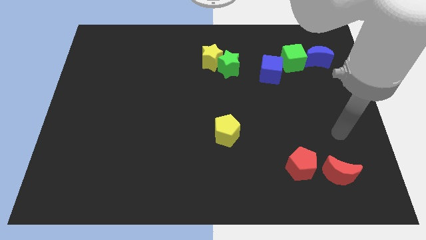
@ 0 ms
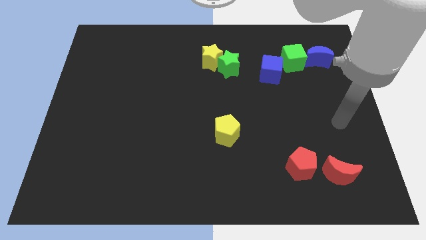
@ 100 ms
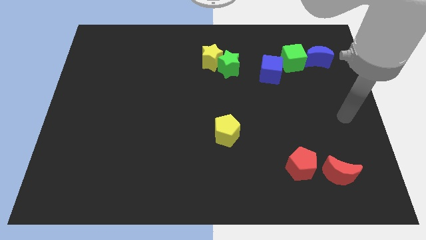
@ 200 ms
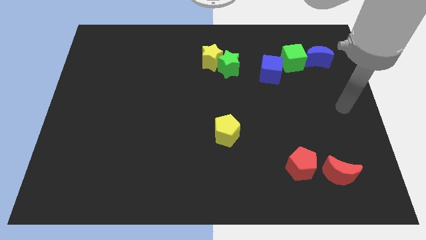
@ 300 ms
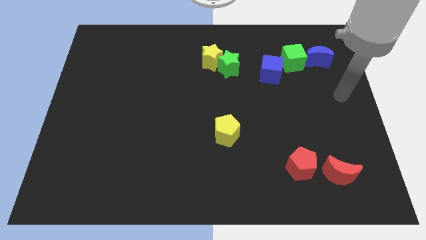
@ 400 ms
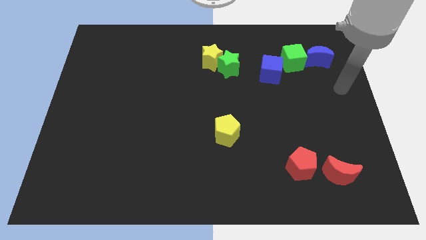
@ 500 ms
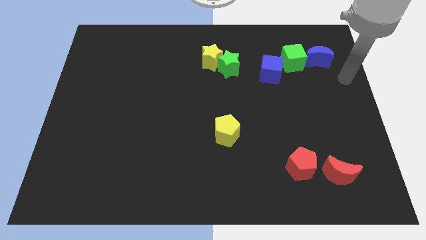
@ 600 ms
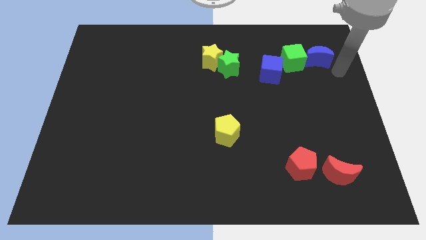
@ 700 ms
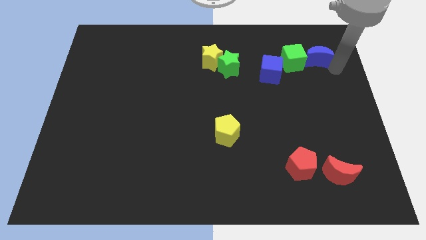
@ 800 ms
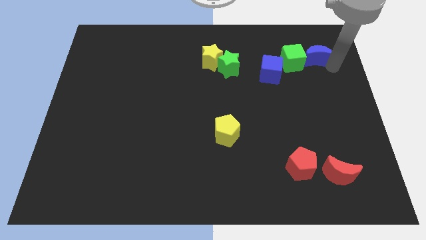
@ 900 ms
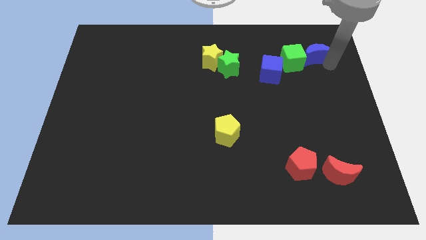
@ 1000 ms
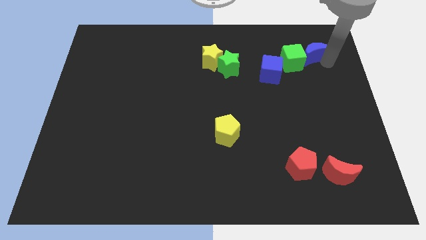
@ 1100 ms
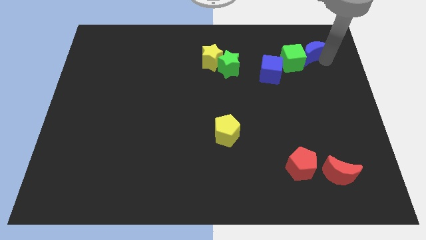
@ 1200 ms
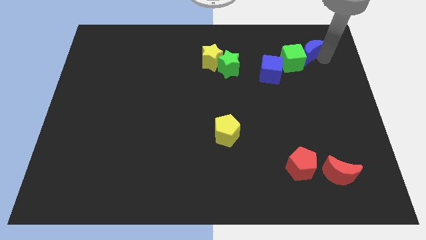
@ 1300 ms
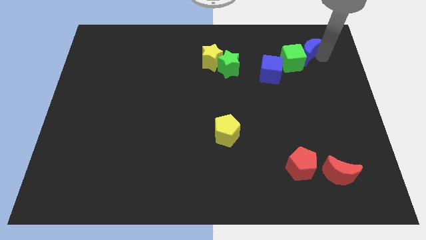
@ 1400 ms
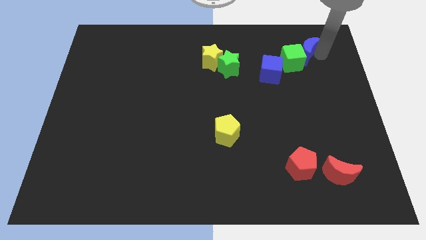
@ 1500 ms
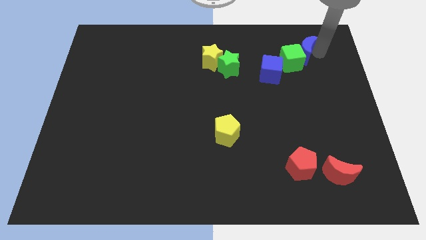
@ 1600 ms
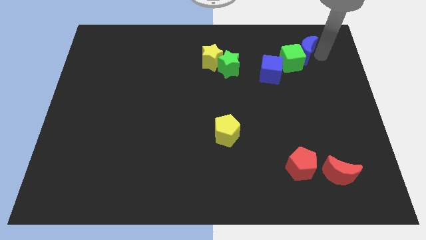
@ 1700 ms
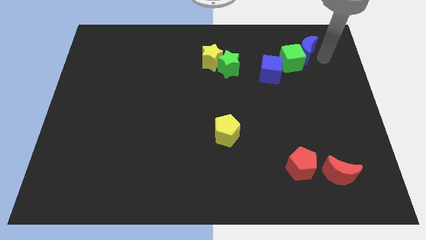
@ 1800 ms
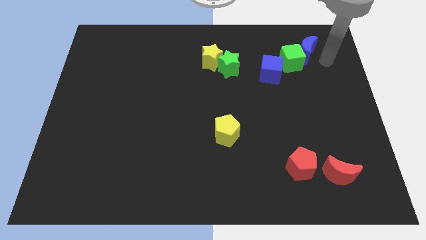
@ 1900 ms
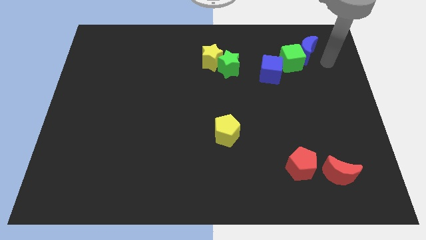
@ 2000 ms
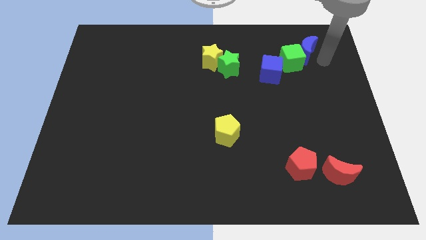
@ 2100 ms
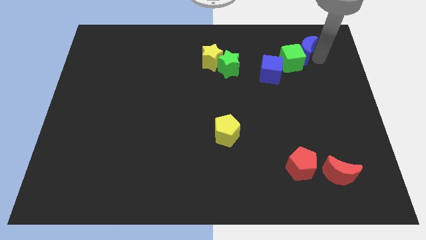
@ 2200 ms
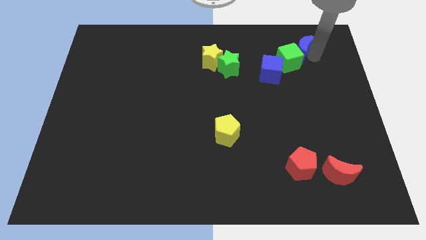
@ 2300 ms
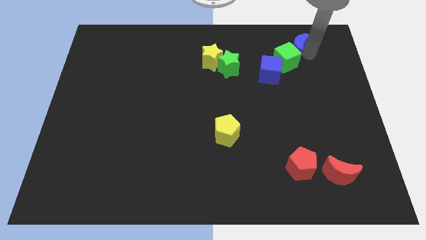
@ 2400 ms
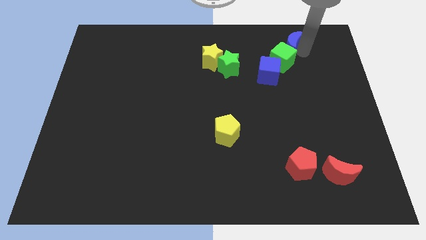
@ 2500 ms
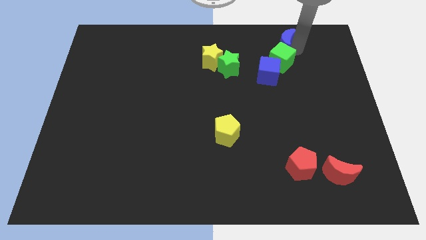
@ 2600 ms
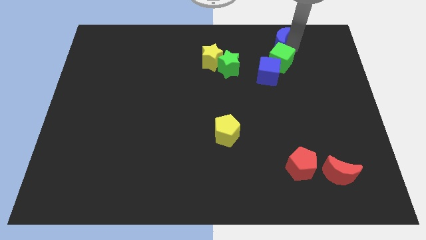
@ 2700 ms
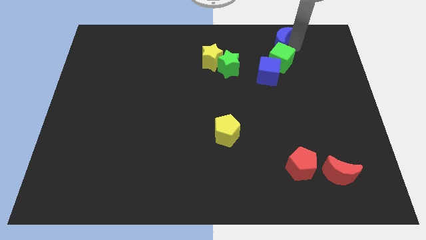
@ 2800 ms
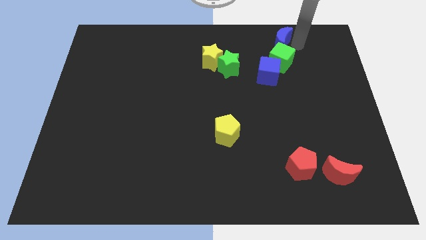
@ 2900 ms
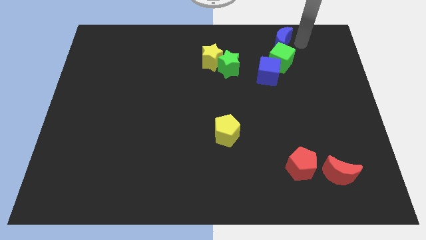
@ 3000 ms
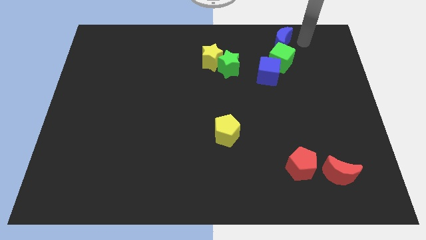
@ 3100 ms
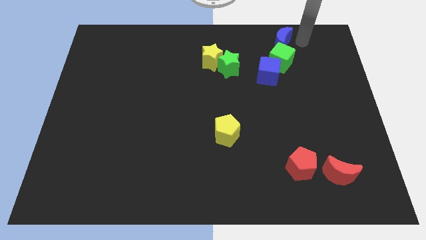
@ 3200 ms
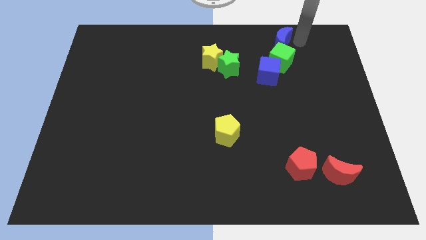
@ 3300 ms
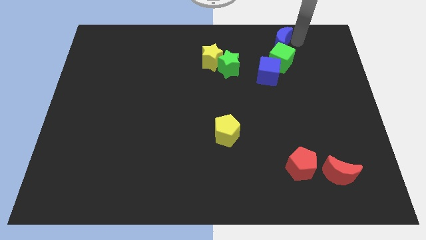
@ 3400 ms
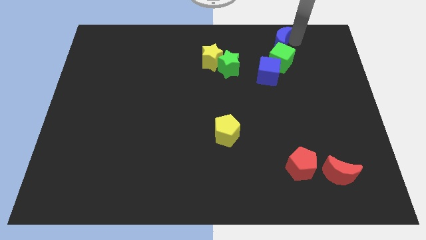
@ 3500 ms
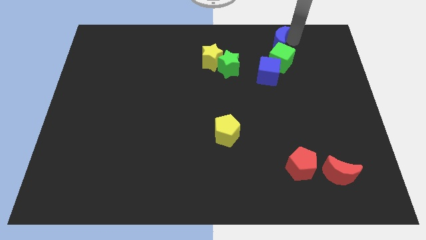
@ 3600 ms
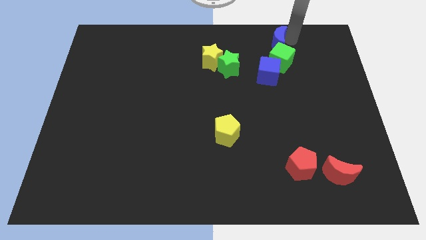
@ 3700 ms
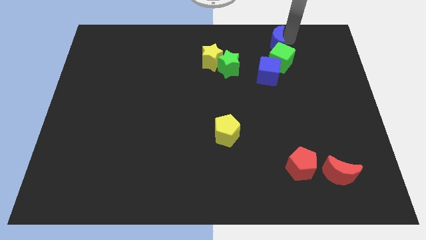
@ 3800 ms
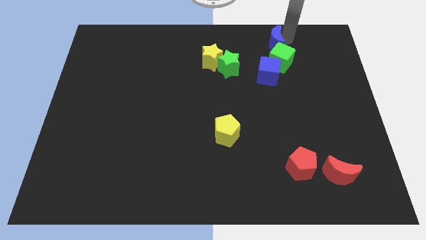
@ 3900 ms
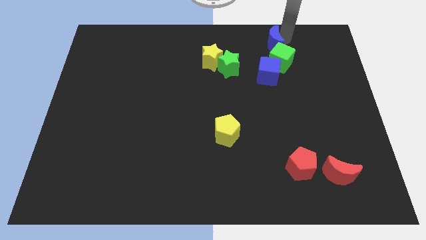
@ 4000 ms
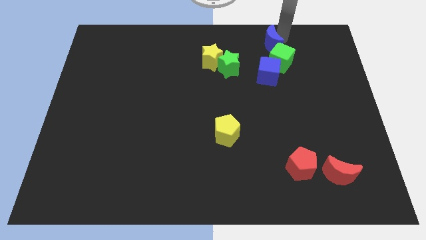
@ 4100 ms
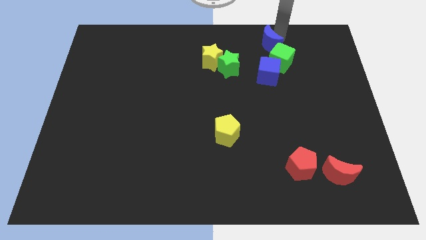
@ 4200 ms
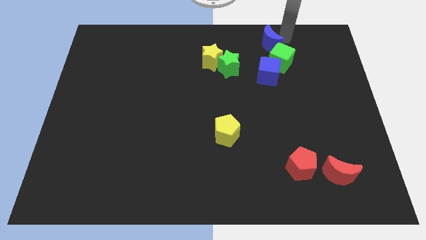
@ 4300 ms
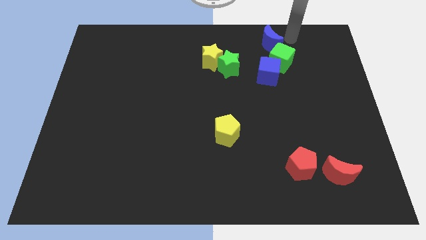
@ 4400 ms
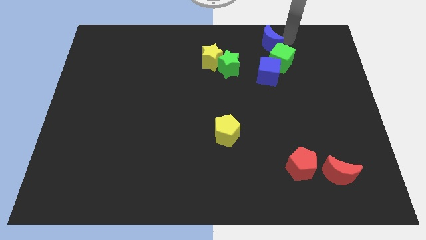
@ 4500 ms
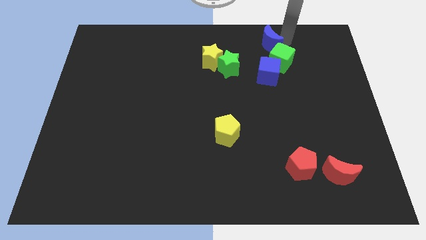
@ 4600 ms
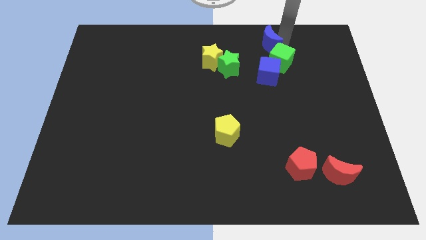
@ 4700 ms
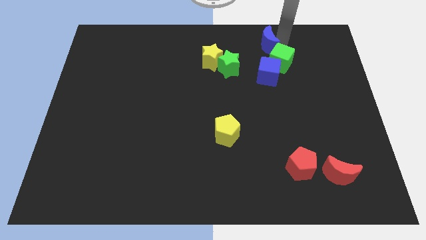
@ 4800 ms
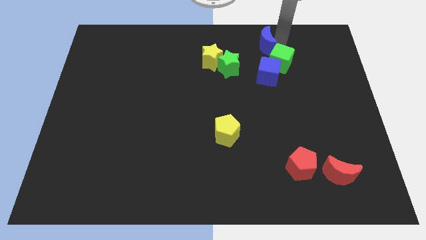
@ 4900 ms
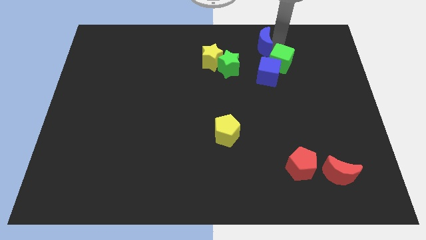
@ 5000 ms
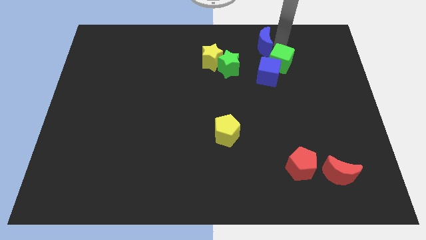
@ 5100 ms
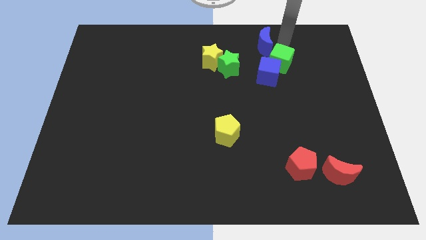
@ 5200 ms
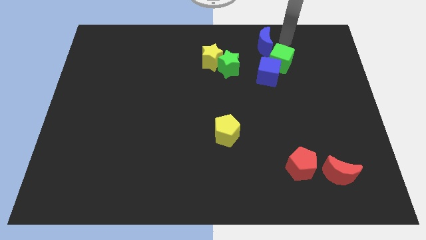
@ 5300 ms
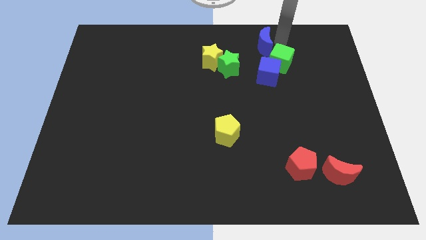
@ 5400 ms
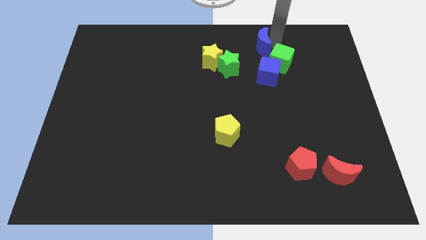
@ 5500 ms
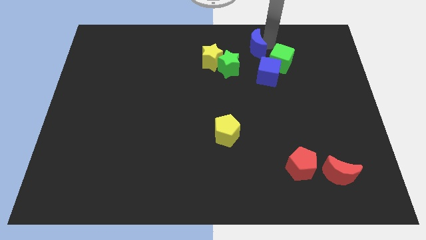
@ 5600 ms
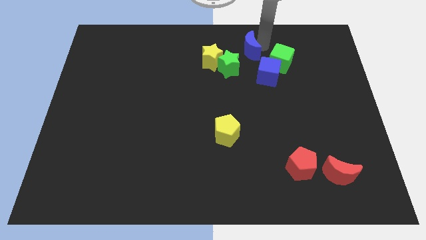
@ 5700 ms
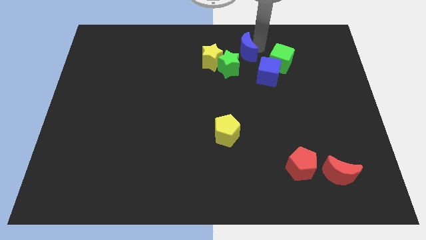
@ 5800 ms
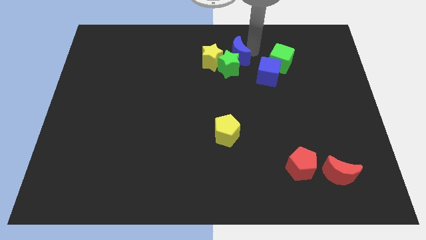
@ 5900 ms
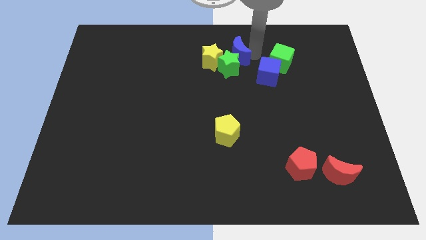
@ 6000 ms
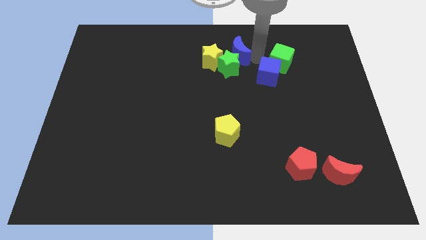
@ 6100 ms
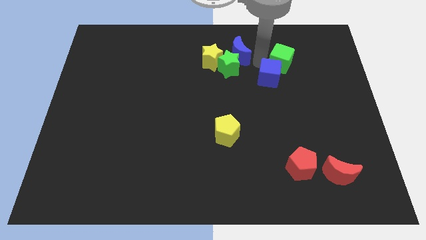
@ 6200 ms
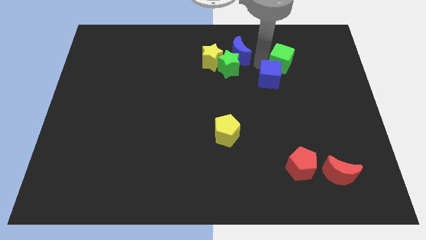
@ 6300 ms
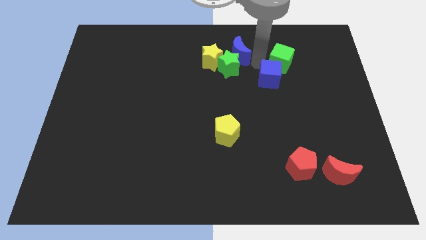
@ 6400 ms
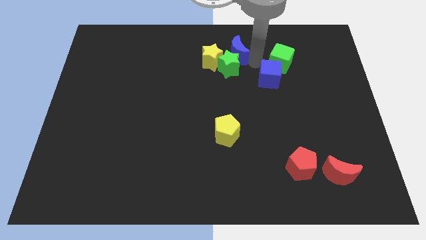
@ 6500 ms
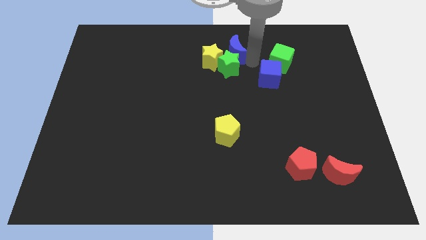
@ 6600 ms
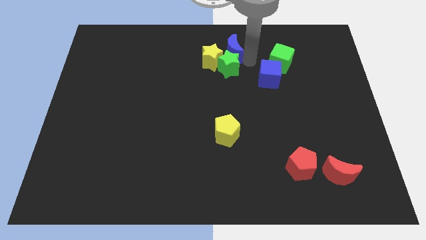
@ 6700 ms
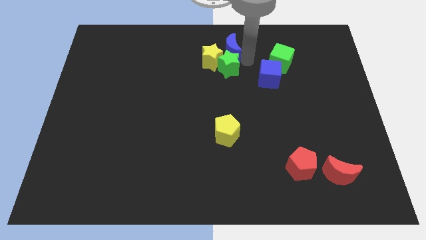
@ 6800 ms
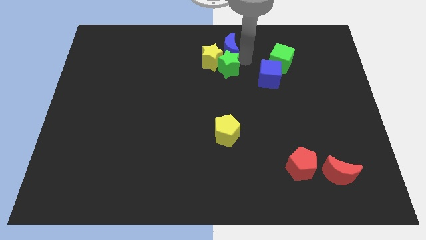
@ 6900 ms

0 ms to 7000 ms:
push the blue moon close to the yellow star

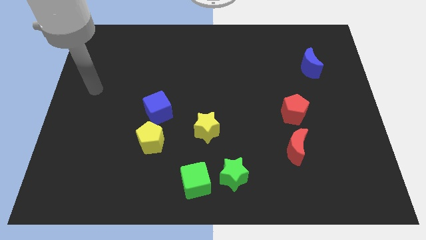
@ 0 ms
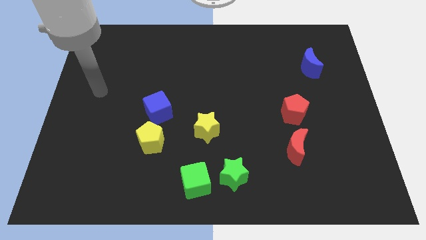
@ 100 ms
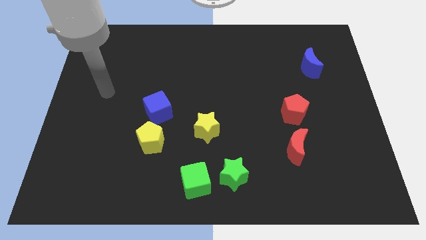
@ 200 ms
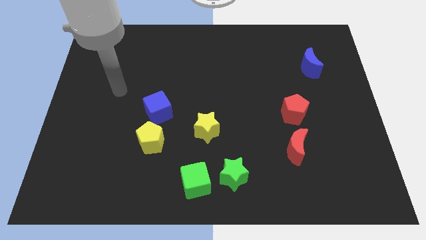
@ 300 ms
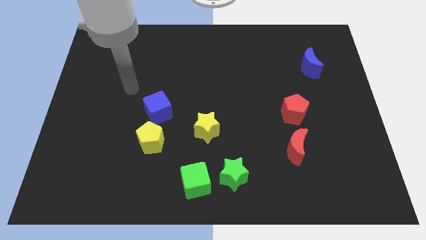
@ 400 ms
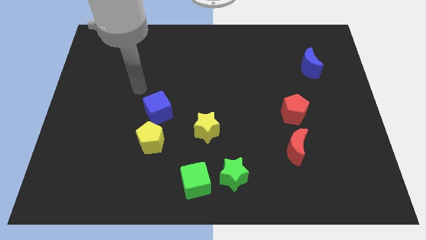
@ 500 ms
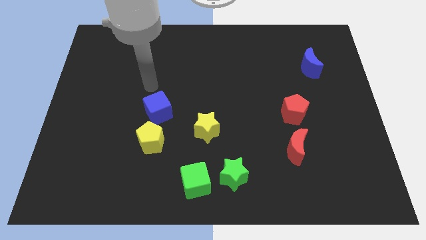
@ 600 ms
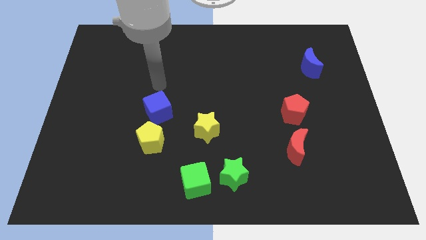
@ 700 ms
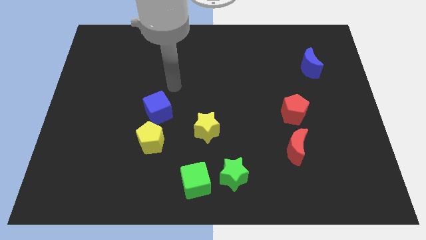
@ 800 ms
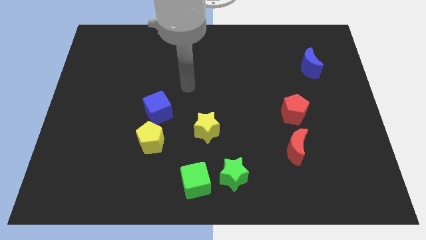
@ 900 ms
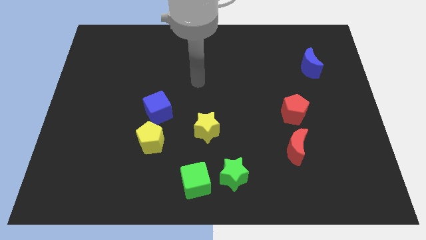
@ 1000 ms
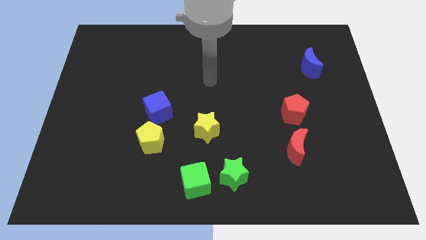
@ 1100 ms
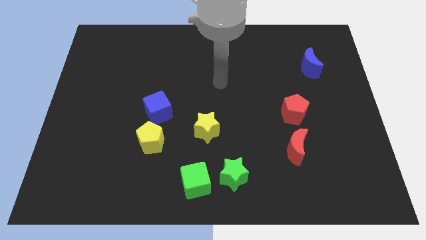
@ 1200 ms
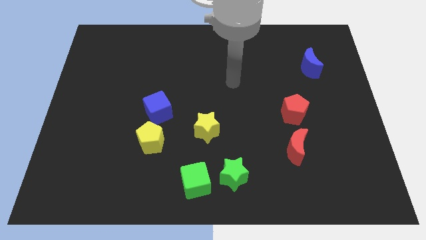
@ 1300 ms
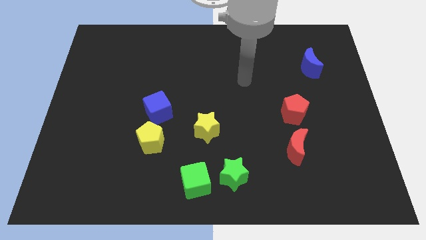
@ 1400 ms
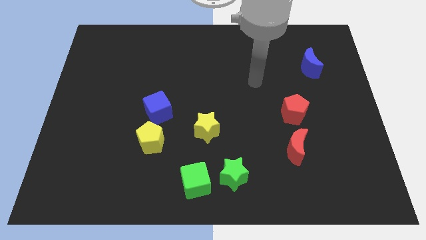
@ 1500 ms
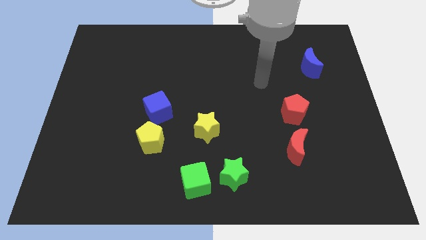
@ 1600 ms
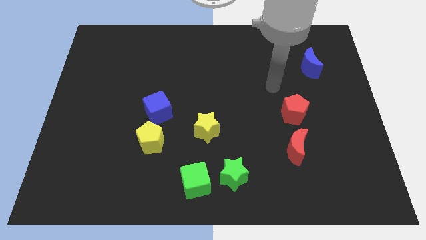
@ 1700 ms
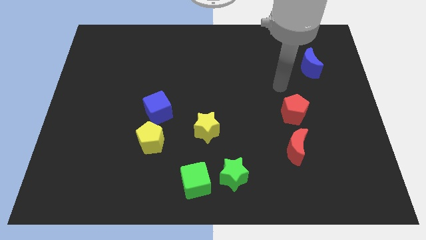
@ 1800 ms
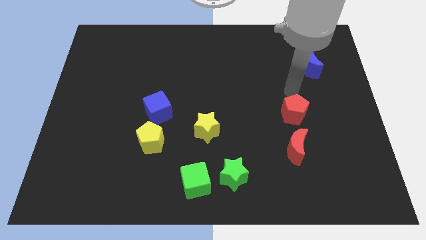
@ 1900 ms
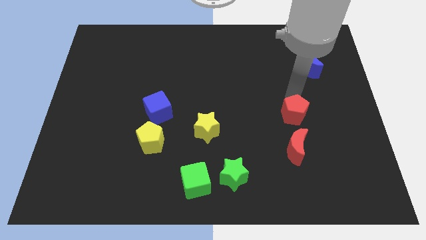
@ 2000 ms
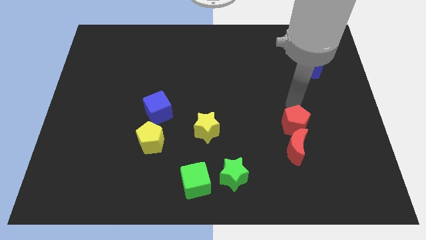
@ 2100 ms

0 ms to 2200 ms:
push the red pentagon next to the red moon
